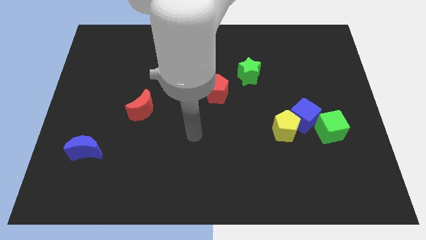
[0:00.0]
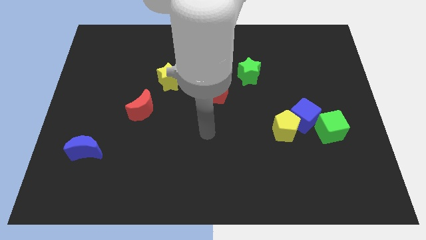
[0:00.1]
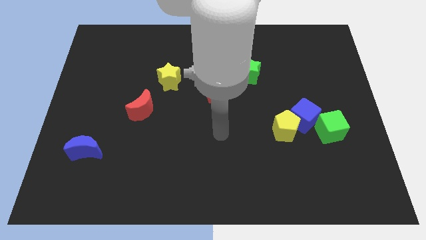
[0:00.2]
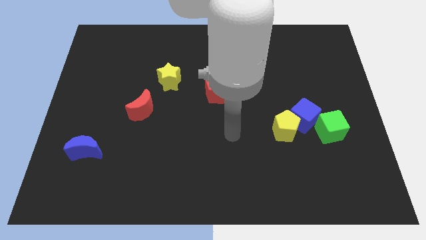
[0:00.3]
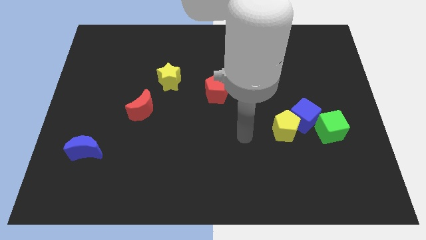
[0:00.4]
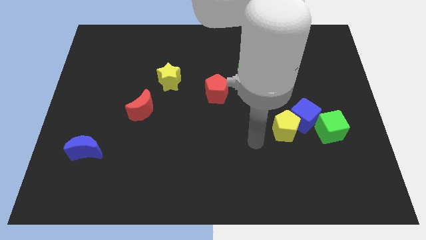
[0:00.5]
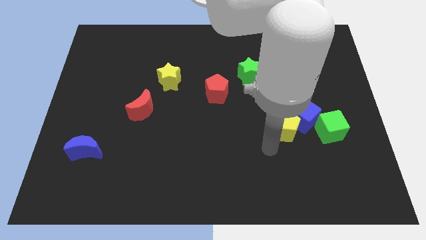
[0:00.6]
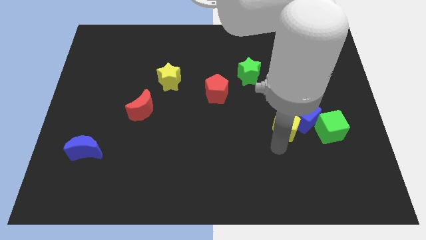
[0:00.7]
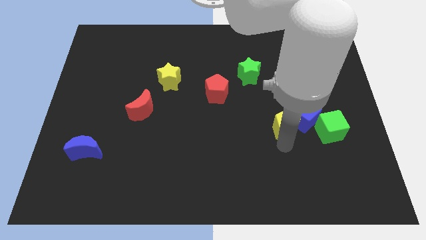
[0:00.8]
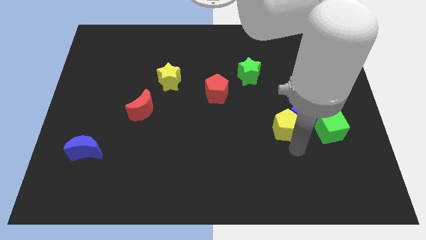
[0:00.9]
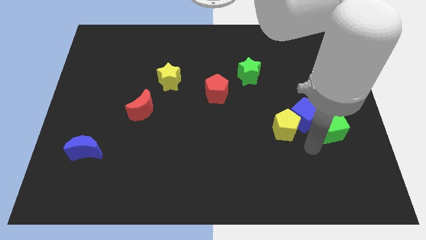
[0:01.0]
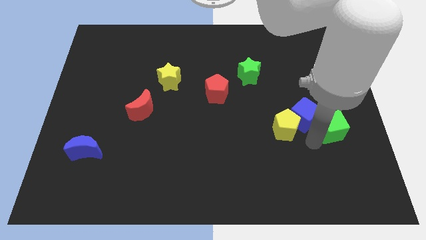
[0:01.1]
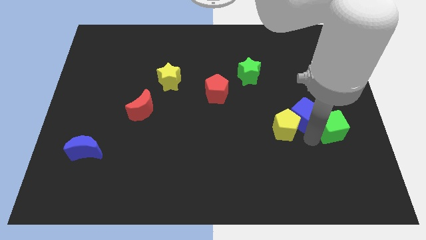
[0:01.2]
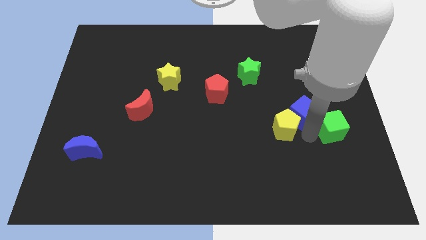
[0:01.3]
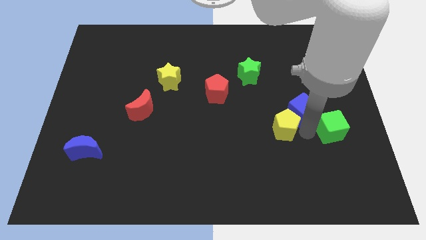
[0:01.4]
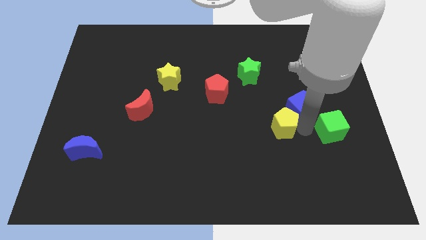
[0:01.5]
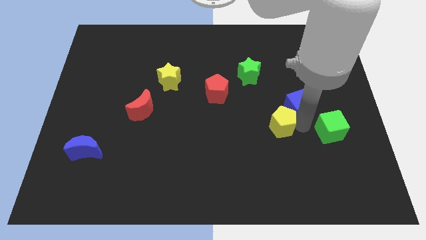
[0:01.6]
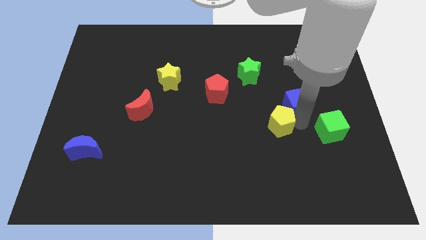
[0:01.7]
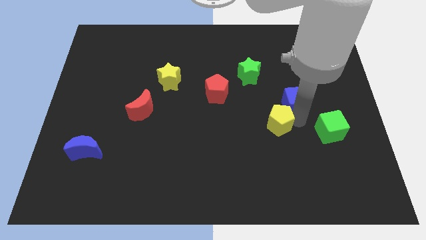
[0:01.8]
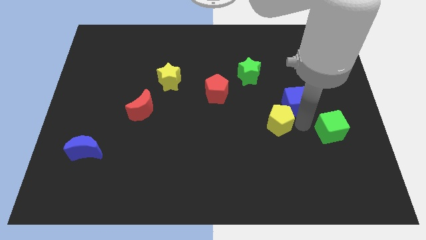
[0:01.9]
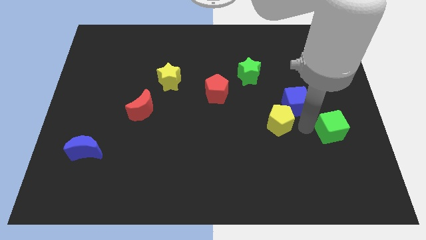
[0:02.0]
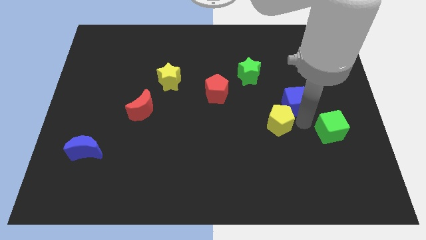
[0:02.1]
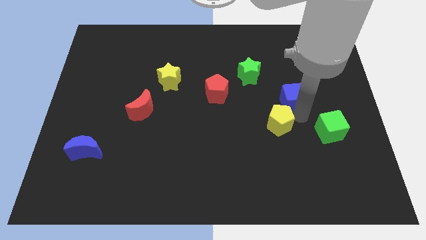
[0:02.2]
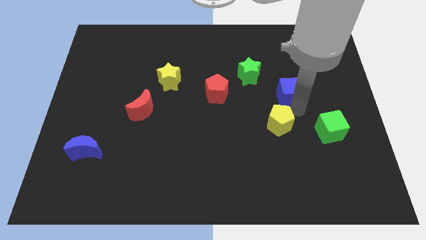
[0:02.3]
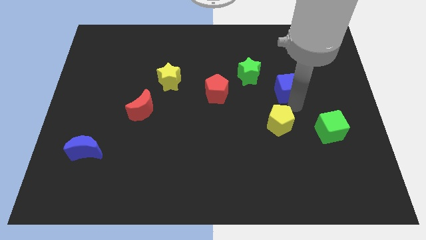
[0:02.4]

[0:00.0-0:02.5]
move the blue cube away from the yellow pentagon and green cube

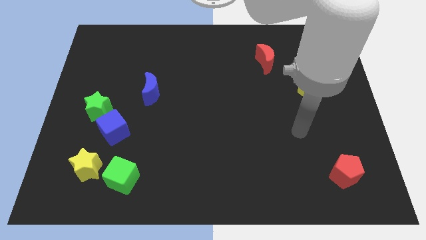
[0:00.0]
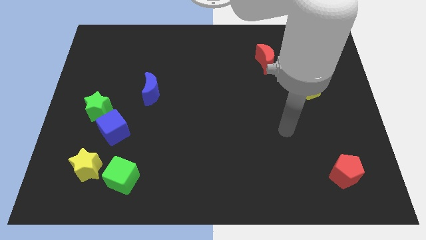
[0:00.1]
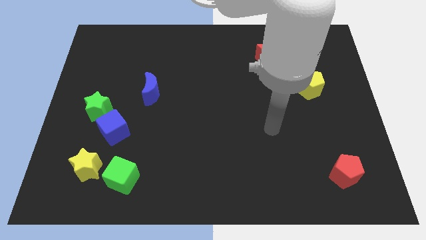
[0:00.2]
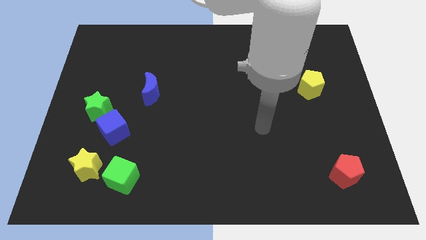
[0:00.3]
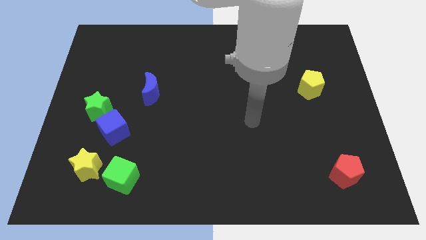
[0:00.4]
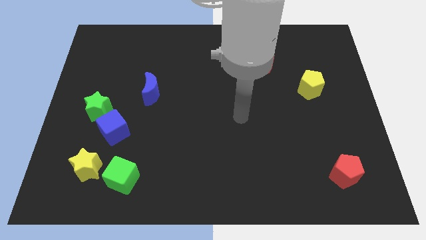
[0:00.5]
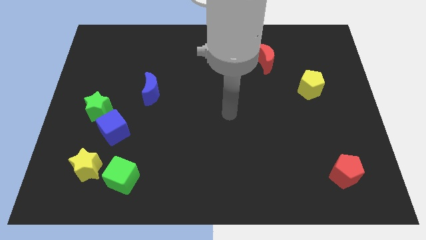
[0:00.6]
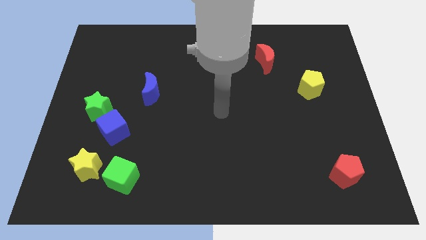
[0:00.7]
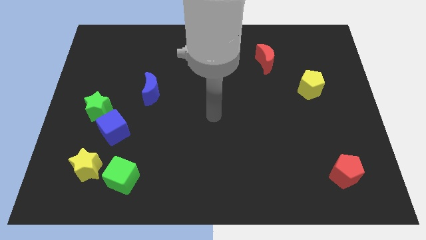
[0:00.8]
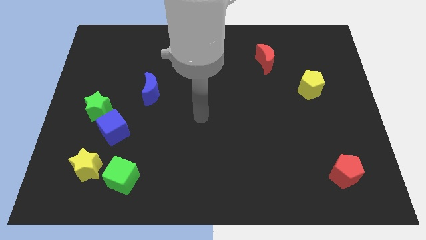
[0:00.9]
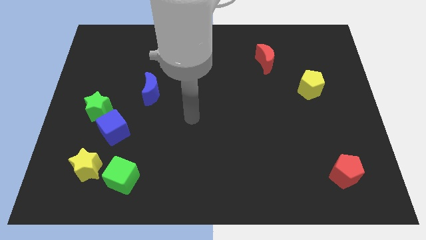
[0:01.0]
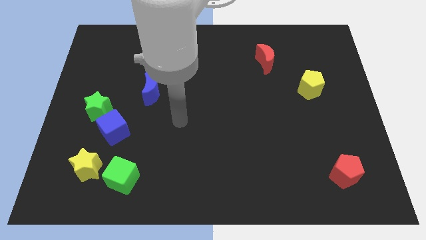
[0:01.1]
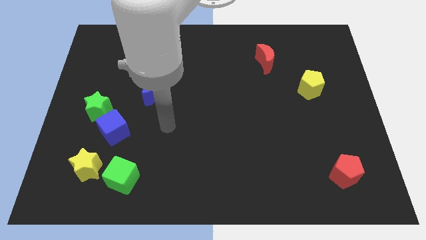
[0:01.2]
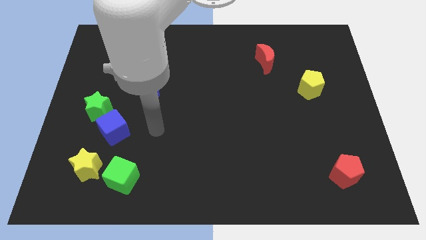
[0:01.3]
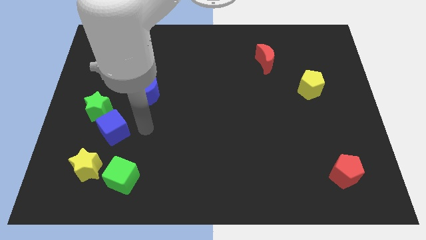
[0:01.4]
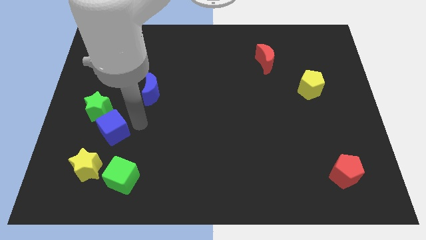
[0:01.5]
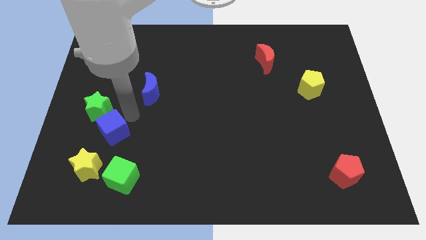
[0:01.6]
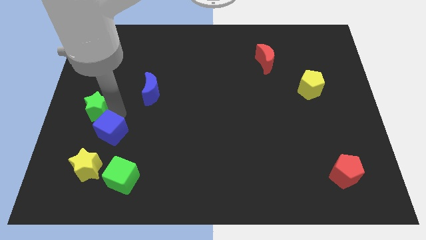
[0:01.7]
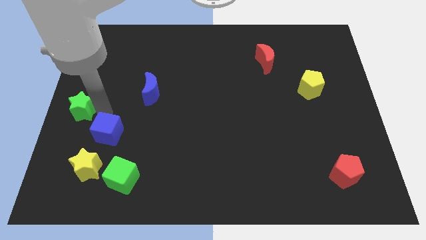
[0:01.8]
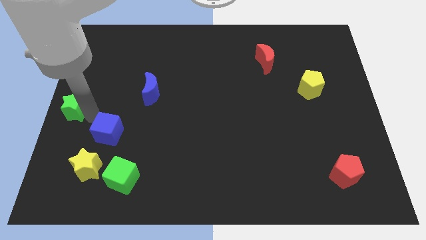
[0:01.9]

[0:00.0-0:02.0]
separate the blue cube from the green star

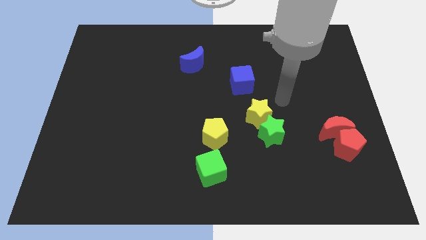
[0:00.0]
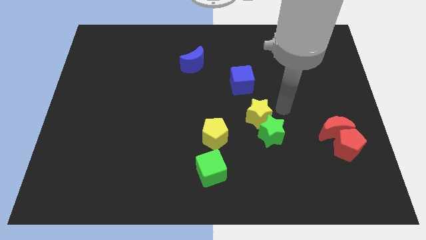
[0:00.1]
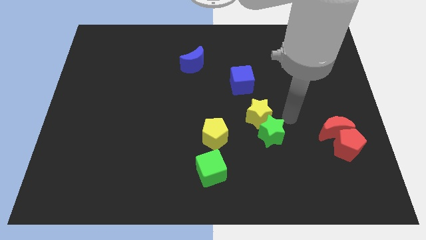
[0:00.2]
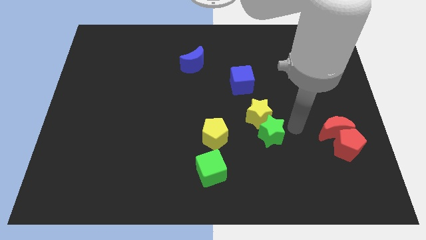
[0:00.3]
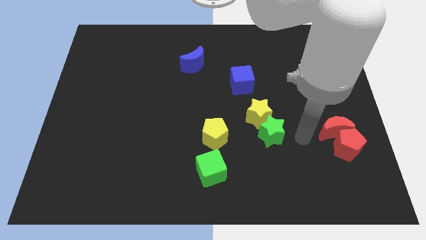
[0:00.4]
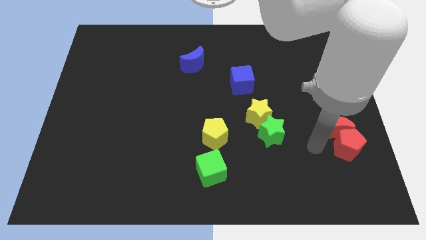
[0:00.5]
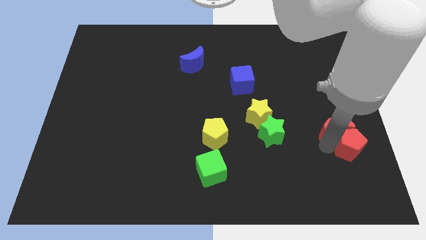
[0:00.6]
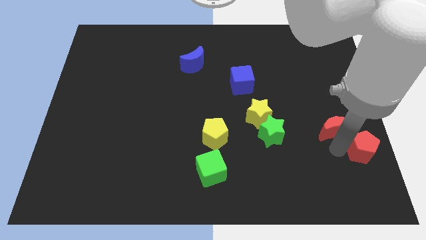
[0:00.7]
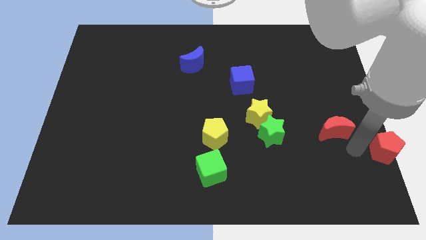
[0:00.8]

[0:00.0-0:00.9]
pull the red moon apart from the red pentagon

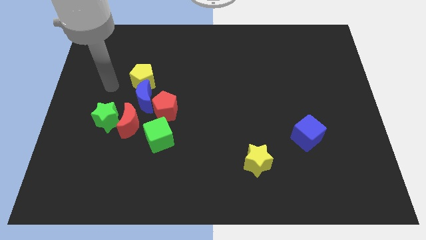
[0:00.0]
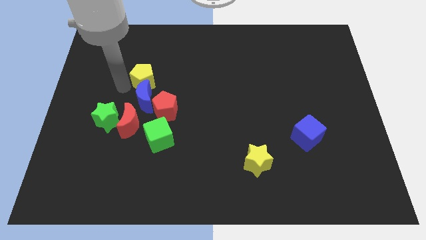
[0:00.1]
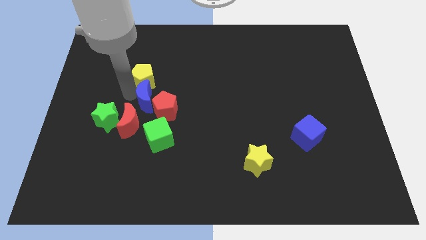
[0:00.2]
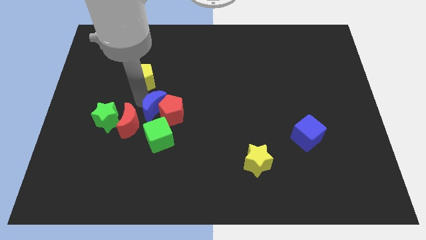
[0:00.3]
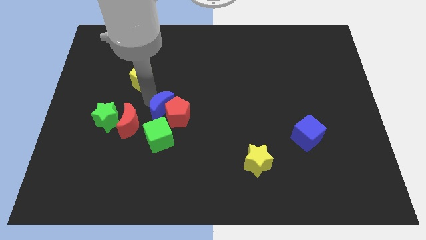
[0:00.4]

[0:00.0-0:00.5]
move the yellow pentagon away from the blue moon

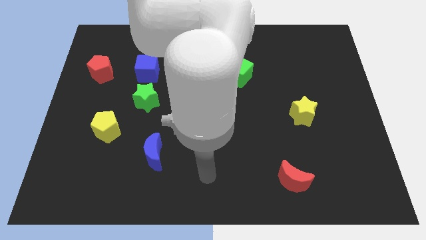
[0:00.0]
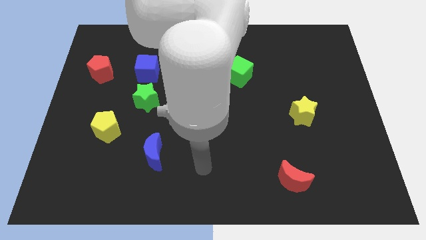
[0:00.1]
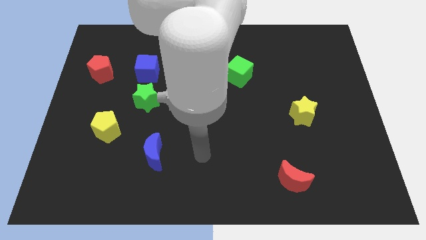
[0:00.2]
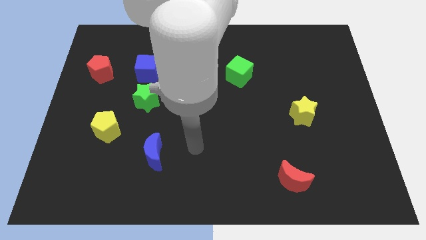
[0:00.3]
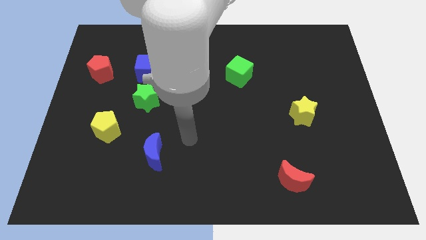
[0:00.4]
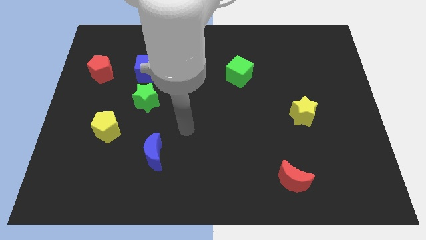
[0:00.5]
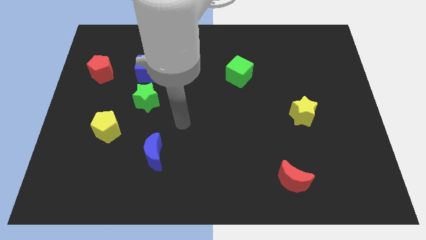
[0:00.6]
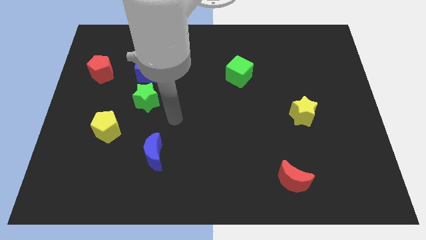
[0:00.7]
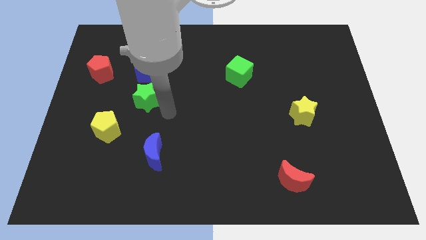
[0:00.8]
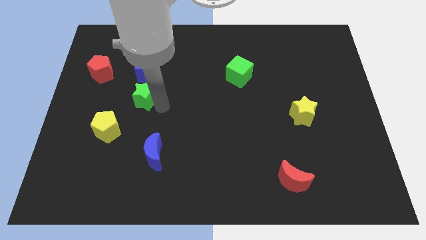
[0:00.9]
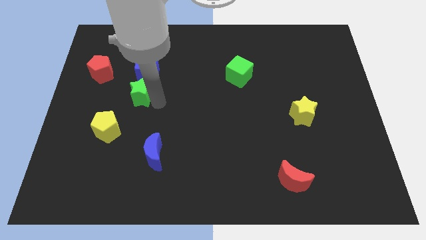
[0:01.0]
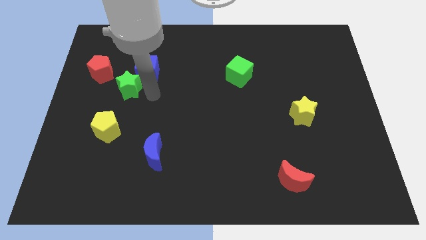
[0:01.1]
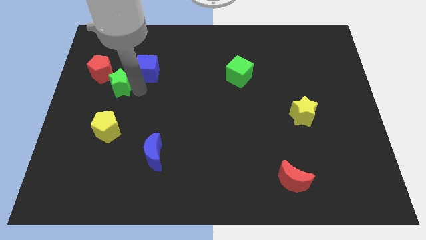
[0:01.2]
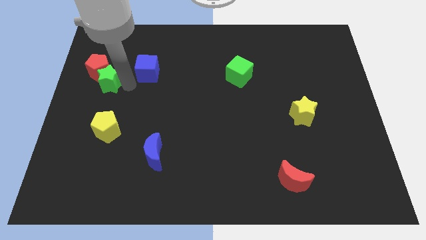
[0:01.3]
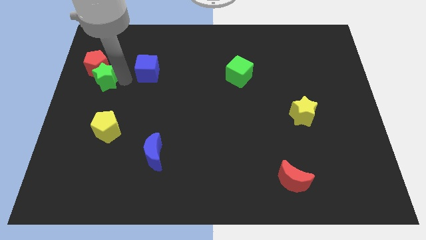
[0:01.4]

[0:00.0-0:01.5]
move the blue cube away from the green star

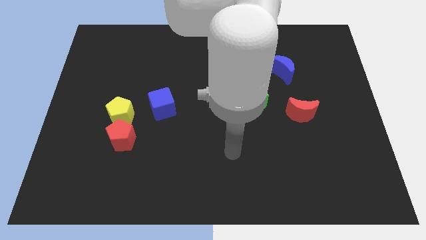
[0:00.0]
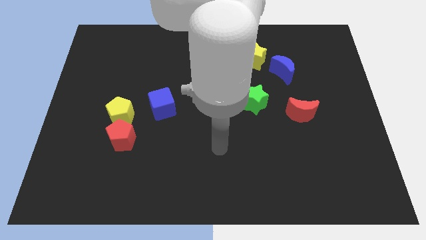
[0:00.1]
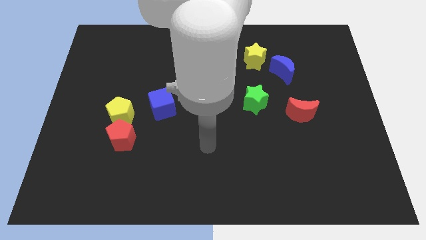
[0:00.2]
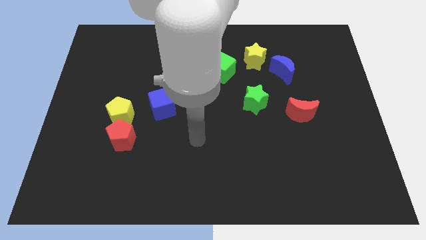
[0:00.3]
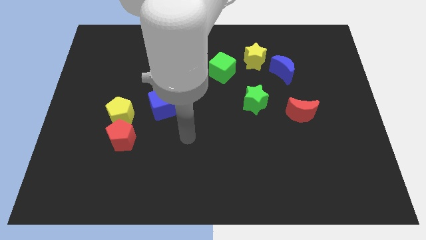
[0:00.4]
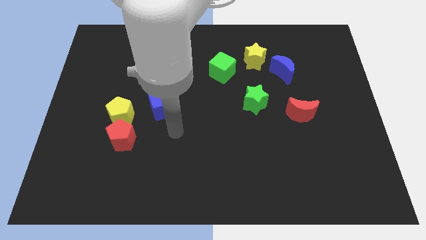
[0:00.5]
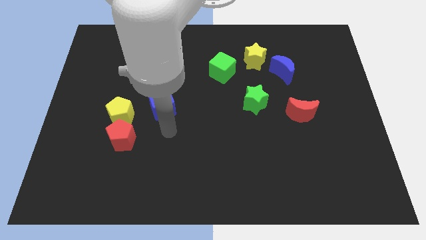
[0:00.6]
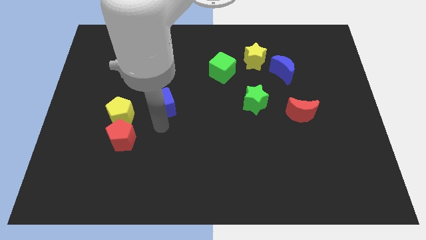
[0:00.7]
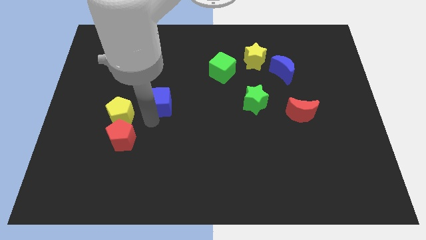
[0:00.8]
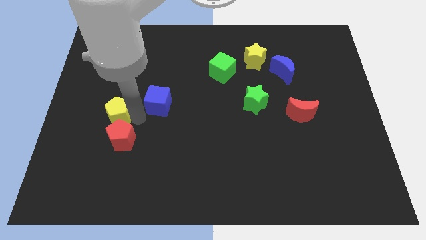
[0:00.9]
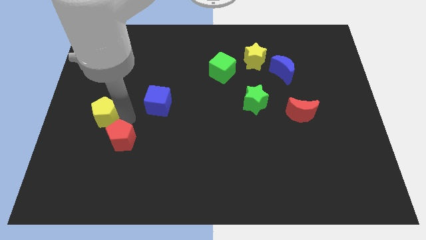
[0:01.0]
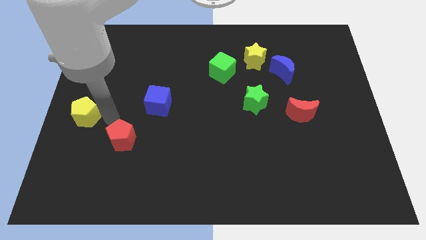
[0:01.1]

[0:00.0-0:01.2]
pull the red pentagon apart from the yellow pentagon

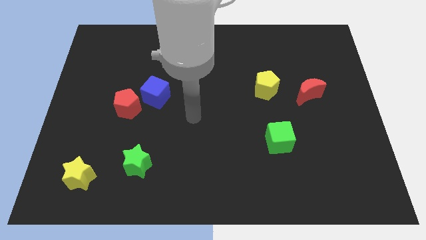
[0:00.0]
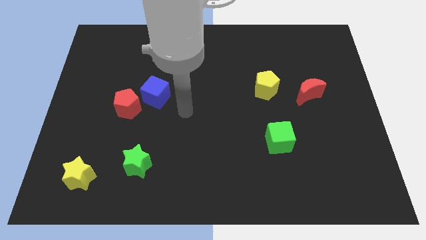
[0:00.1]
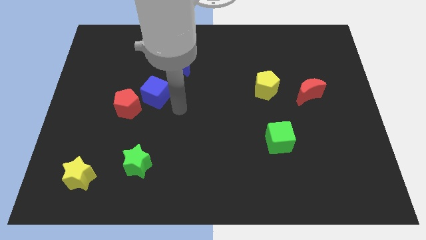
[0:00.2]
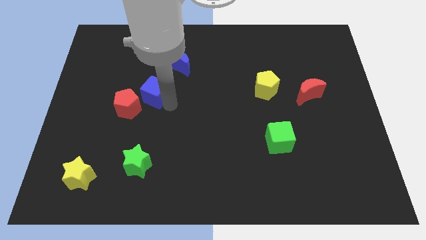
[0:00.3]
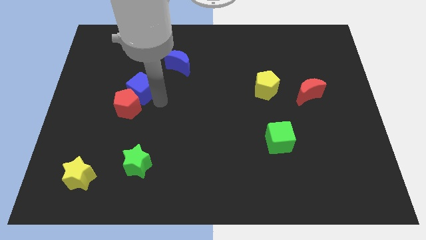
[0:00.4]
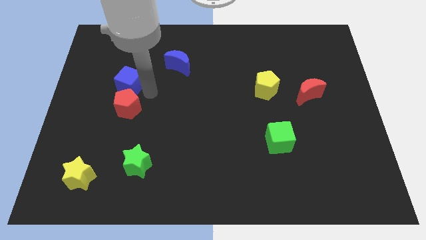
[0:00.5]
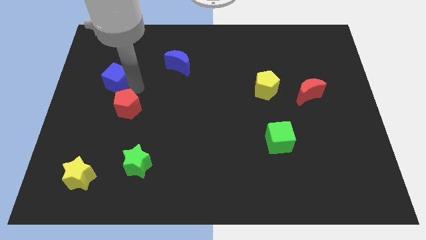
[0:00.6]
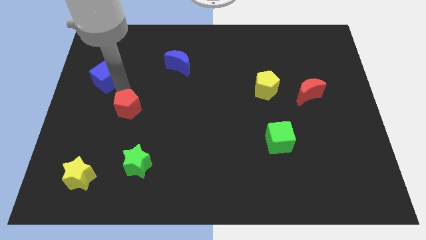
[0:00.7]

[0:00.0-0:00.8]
pull the red pentagon apart from the blue cube

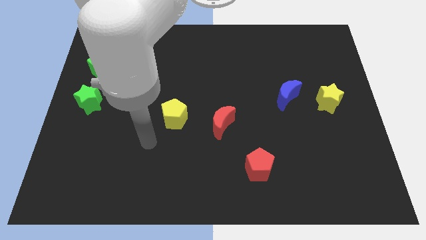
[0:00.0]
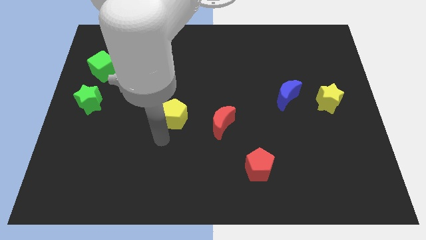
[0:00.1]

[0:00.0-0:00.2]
pull the blue moon apart from the yellow star
